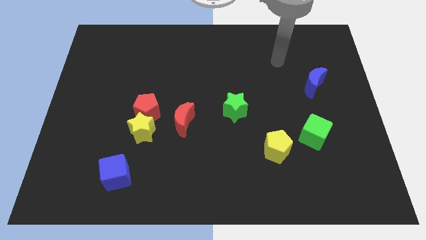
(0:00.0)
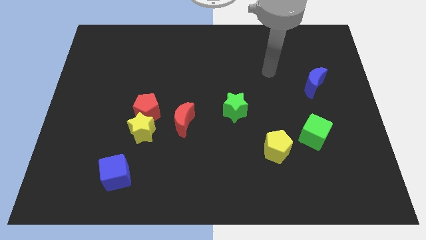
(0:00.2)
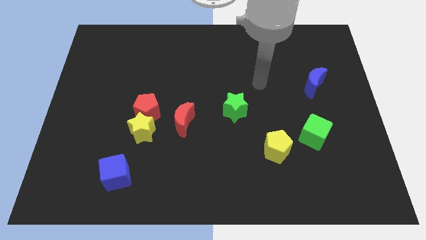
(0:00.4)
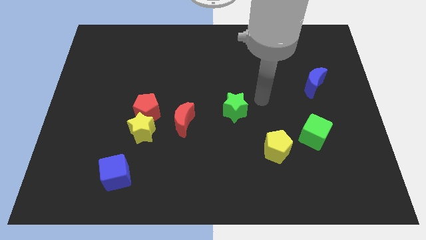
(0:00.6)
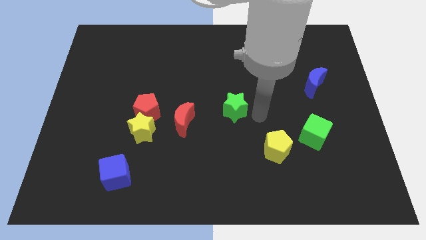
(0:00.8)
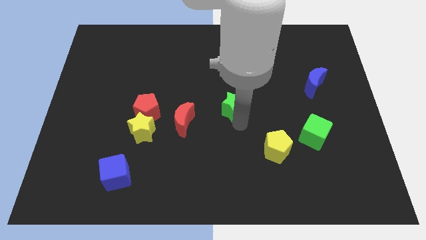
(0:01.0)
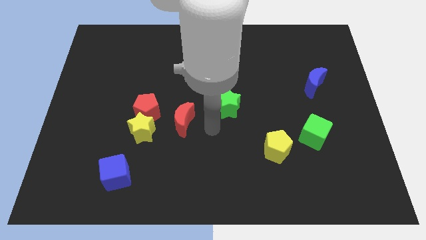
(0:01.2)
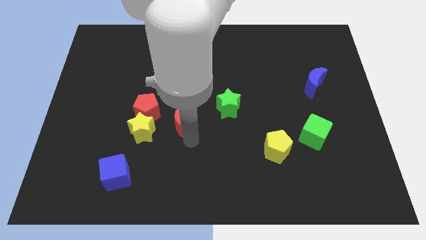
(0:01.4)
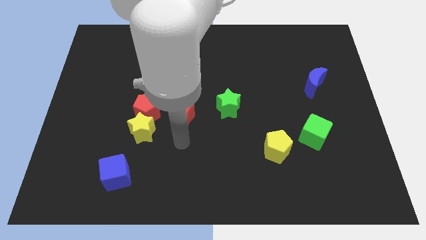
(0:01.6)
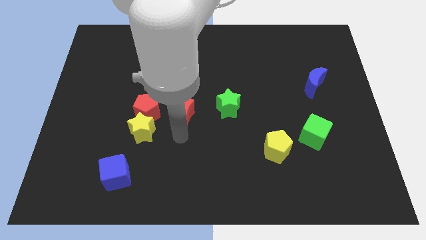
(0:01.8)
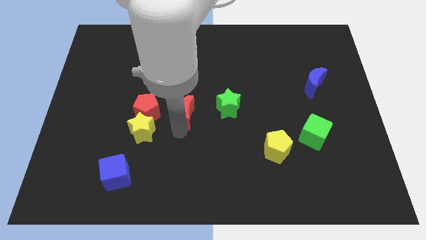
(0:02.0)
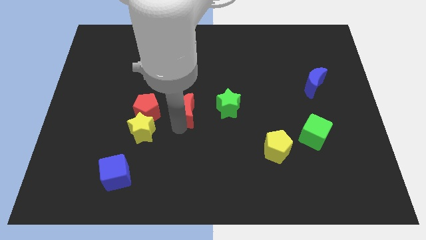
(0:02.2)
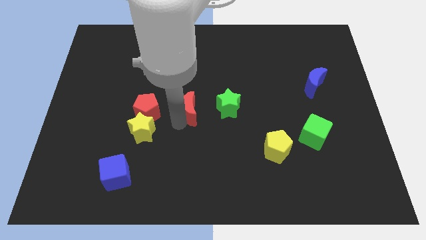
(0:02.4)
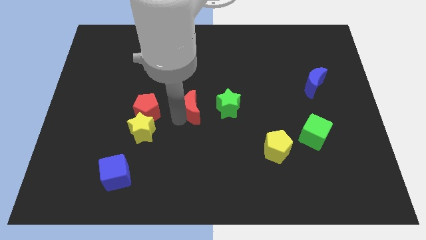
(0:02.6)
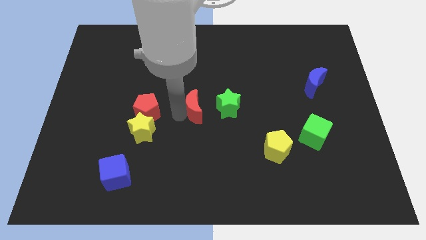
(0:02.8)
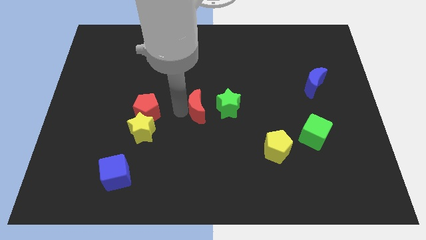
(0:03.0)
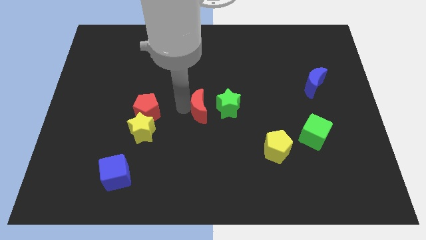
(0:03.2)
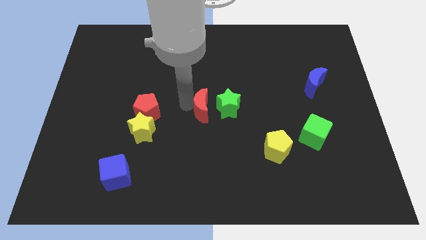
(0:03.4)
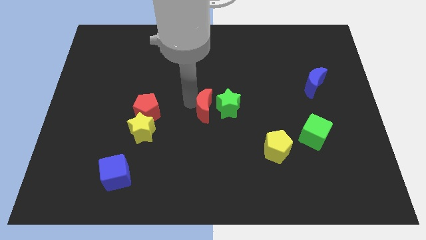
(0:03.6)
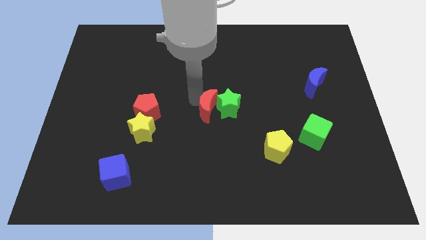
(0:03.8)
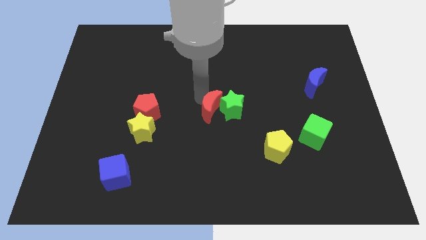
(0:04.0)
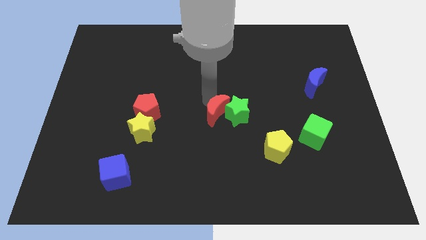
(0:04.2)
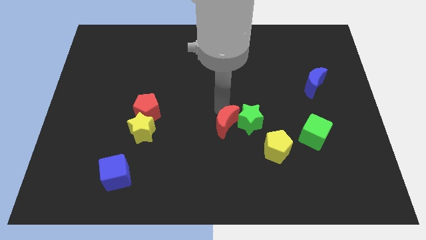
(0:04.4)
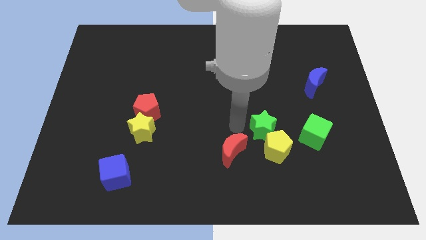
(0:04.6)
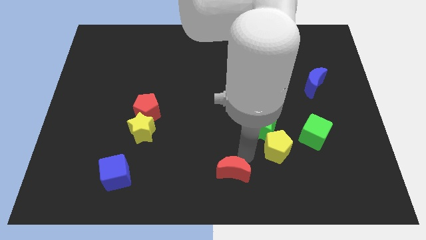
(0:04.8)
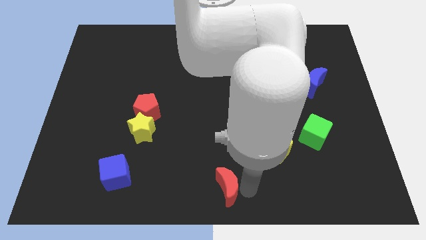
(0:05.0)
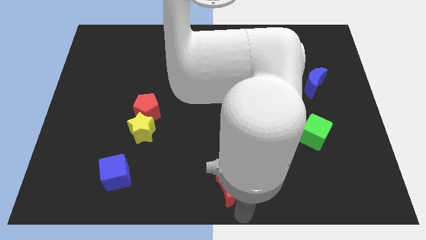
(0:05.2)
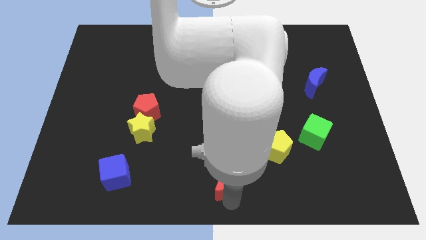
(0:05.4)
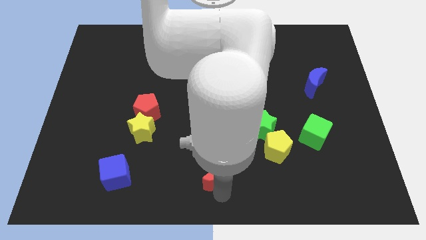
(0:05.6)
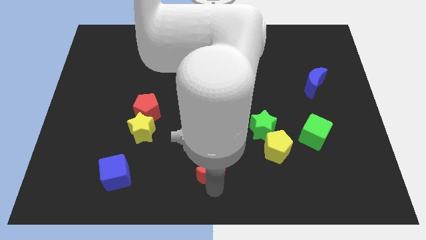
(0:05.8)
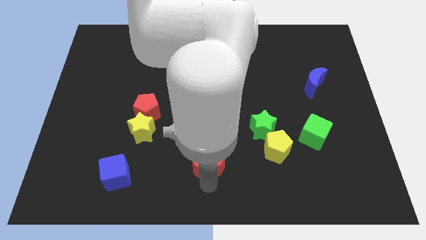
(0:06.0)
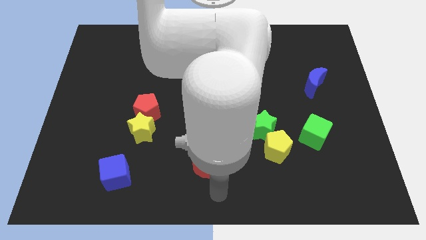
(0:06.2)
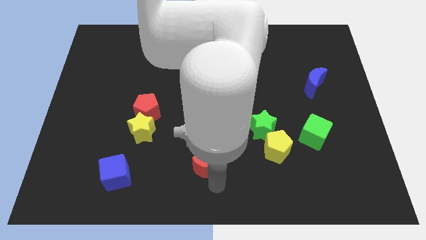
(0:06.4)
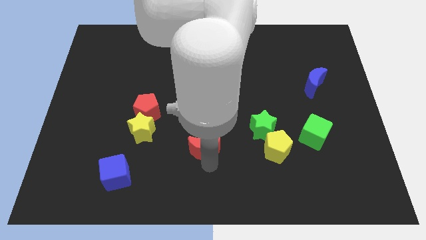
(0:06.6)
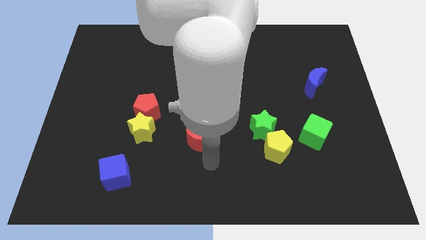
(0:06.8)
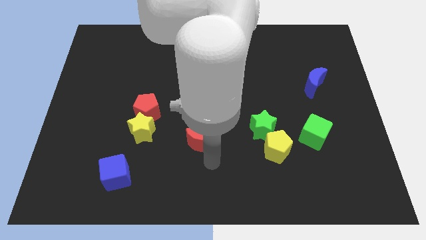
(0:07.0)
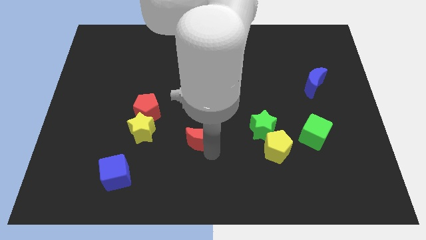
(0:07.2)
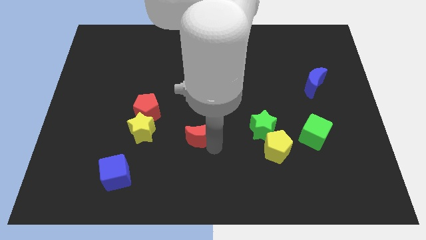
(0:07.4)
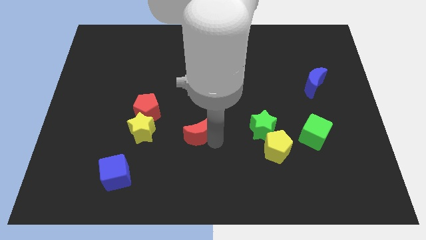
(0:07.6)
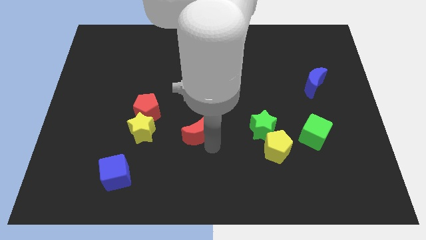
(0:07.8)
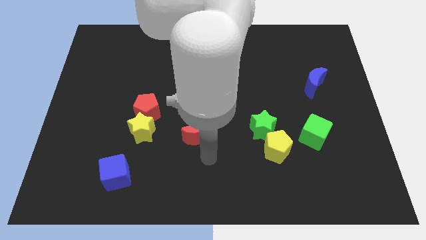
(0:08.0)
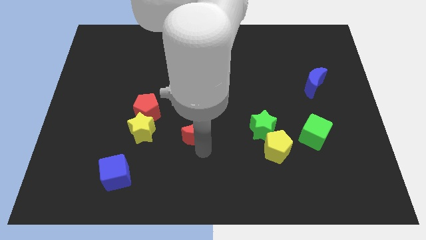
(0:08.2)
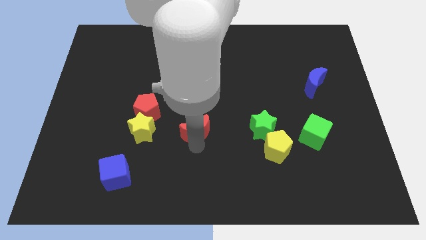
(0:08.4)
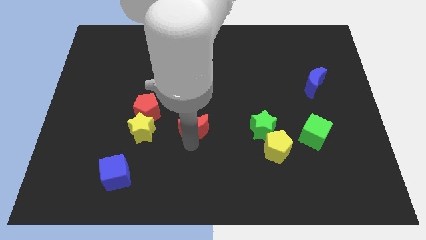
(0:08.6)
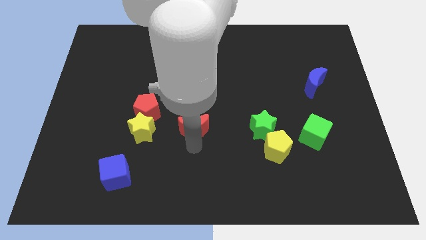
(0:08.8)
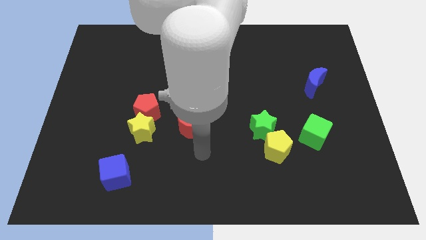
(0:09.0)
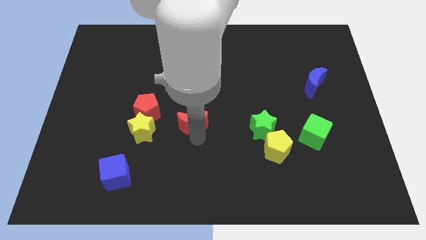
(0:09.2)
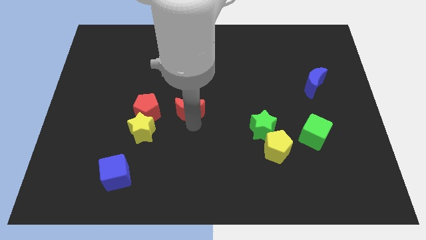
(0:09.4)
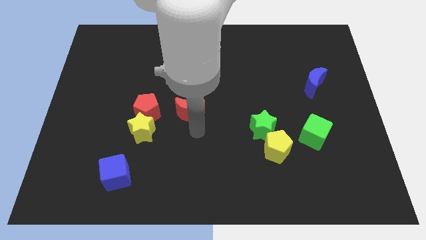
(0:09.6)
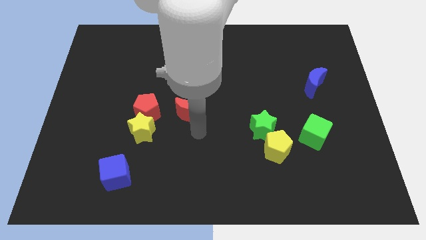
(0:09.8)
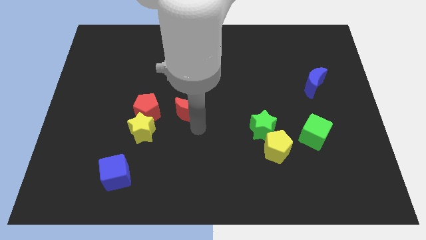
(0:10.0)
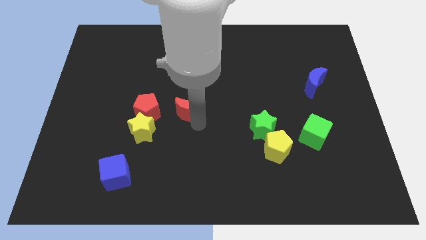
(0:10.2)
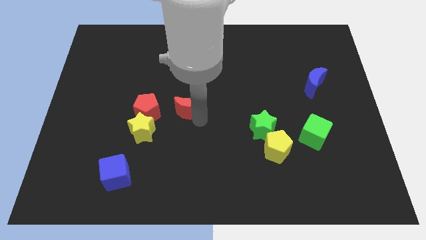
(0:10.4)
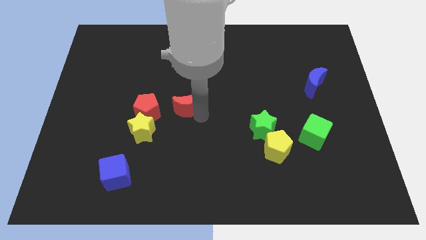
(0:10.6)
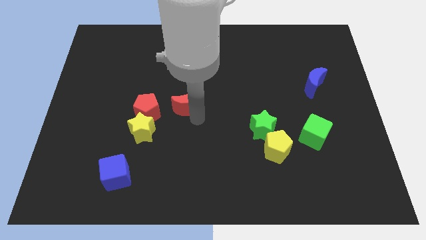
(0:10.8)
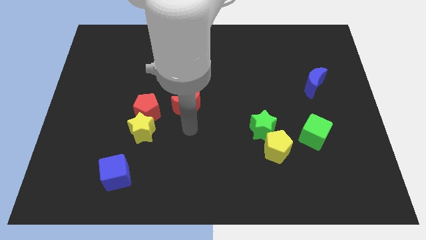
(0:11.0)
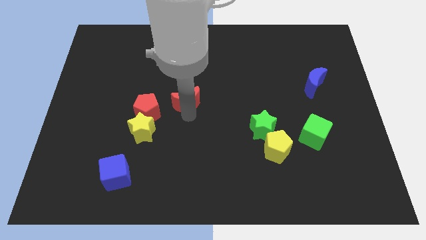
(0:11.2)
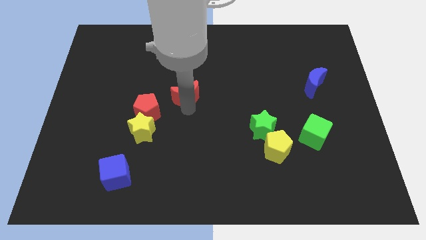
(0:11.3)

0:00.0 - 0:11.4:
move the red moon a bit upwards

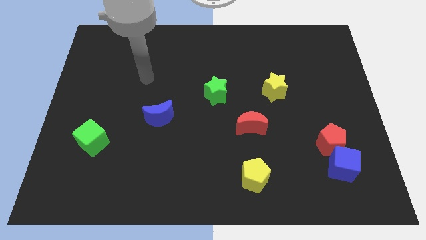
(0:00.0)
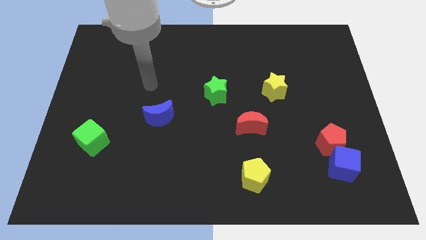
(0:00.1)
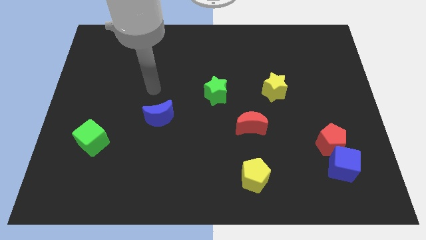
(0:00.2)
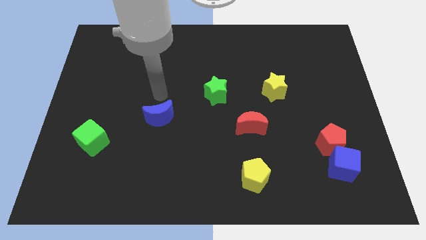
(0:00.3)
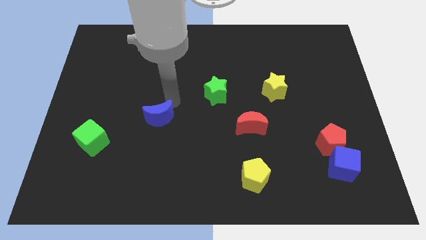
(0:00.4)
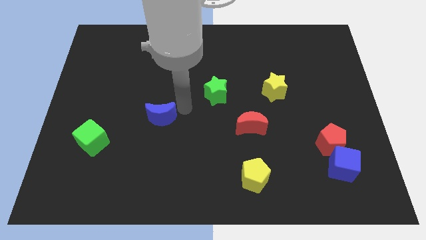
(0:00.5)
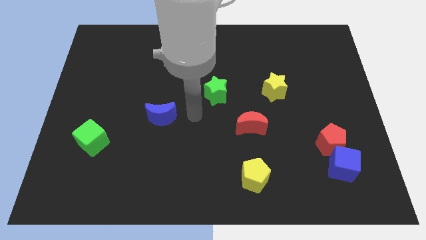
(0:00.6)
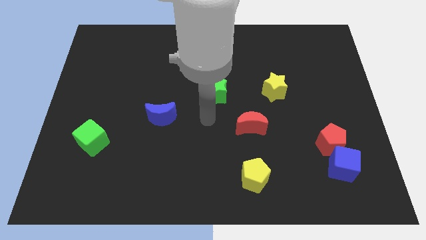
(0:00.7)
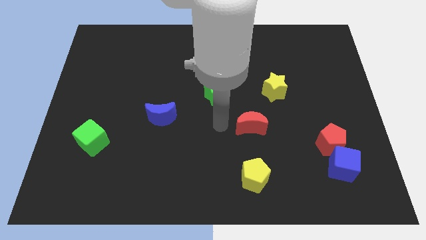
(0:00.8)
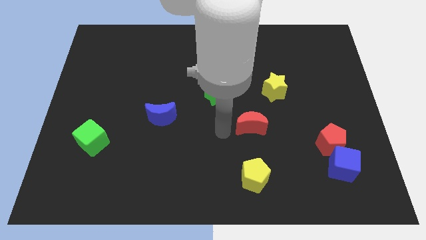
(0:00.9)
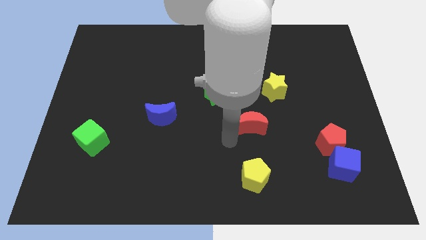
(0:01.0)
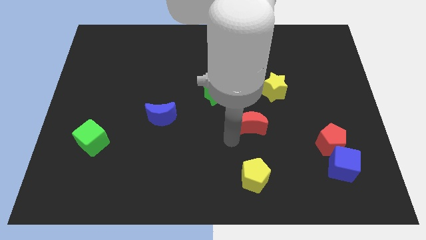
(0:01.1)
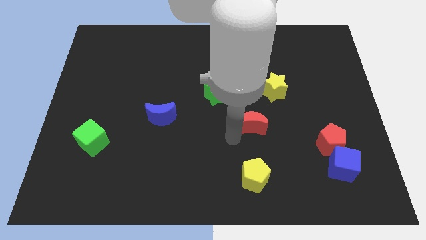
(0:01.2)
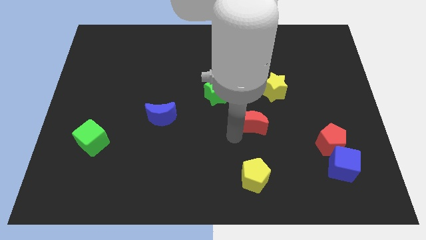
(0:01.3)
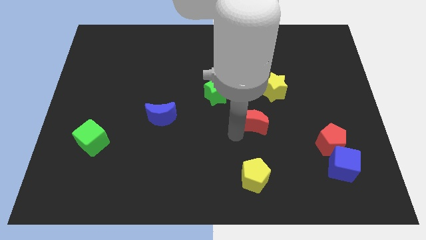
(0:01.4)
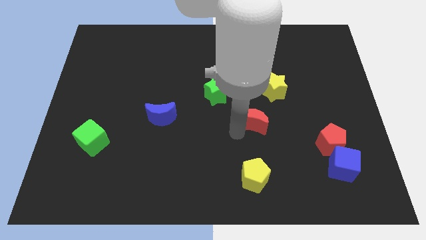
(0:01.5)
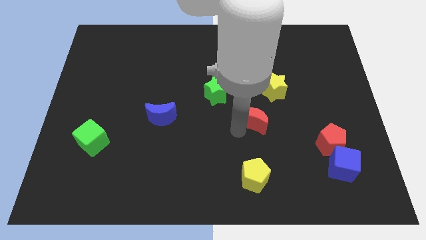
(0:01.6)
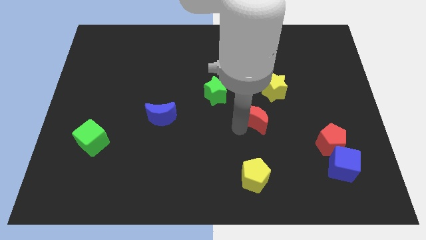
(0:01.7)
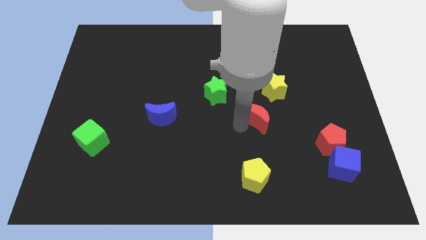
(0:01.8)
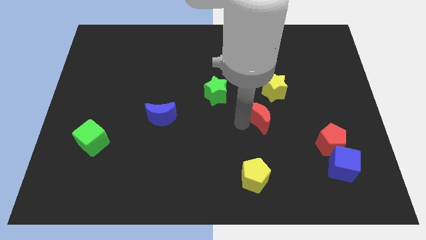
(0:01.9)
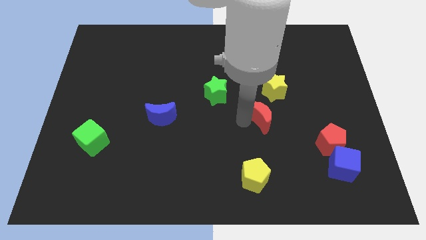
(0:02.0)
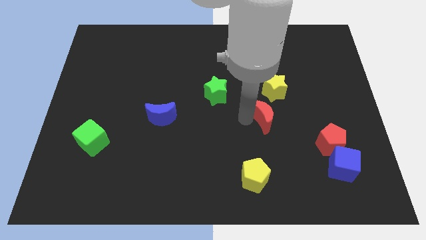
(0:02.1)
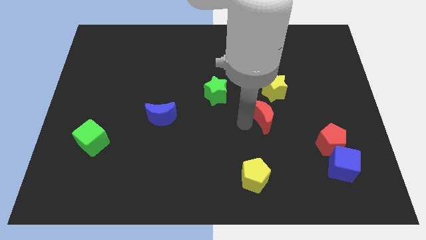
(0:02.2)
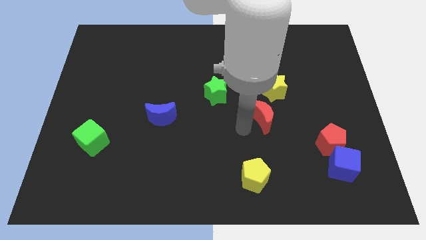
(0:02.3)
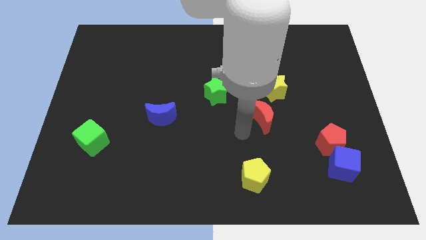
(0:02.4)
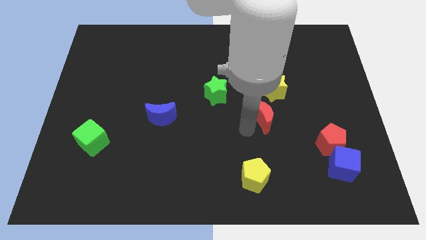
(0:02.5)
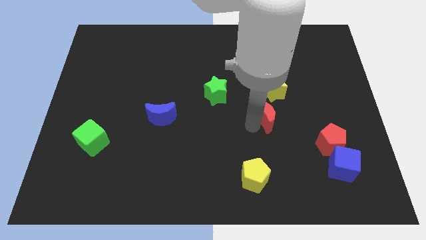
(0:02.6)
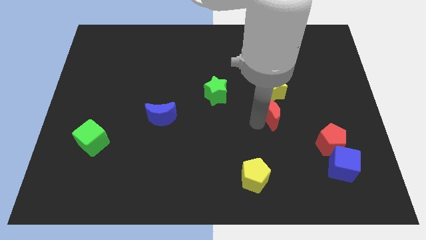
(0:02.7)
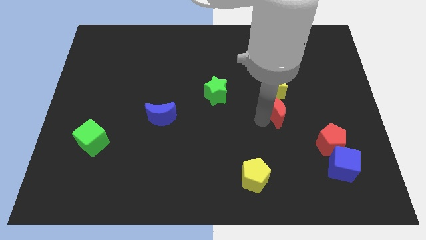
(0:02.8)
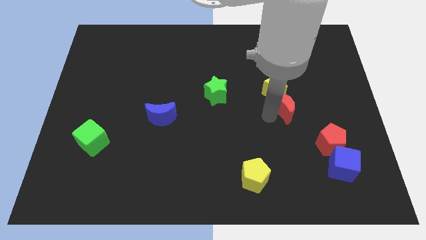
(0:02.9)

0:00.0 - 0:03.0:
push the red moon a little bit up and to the right
